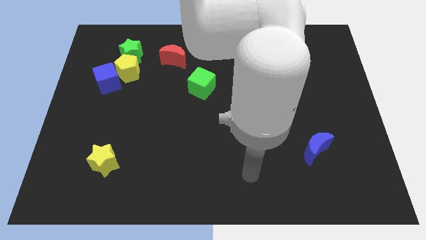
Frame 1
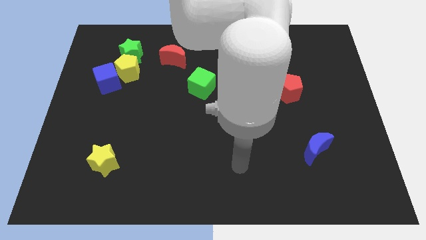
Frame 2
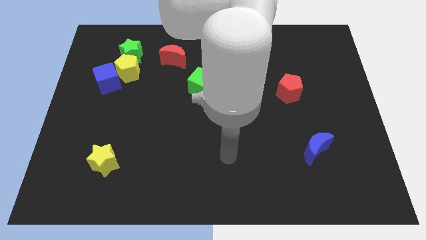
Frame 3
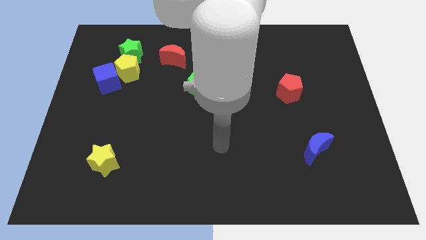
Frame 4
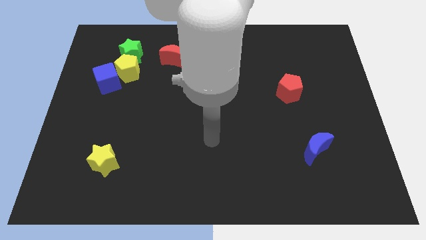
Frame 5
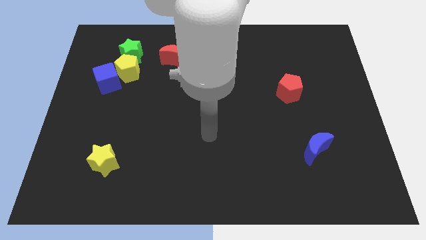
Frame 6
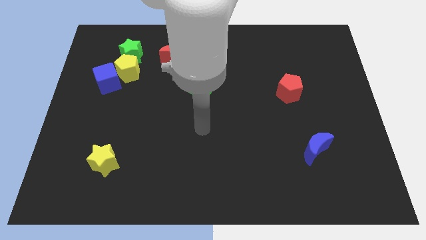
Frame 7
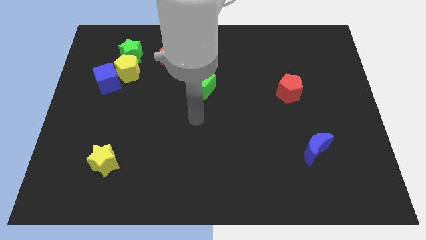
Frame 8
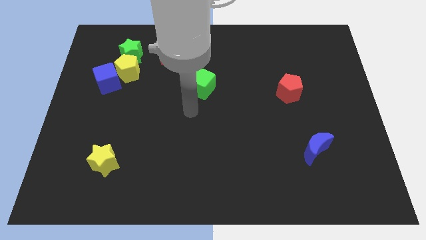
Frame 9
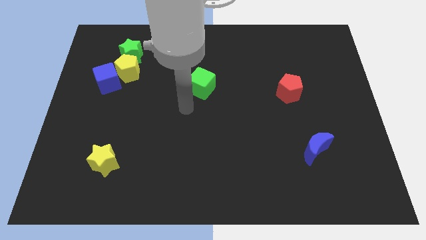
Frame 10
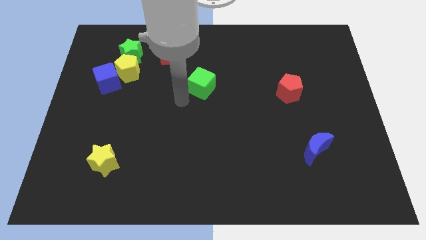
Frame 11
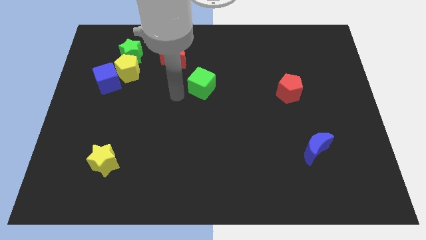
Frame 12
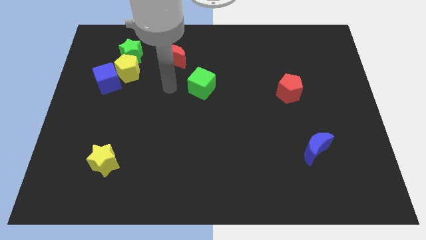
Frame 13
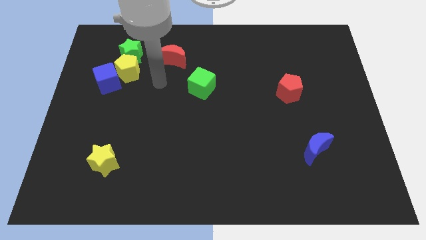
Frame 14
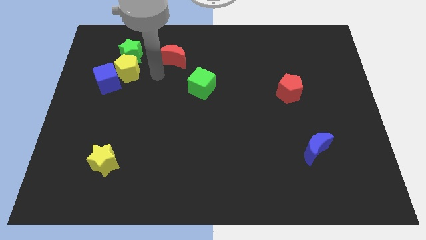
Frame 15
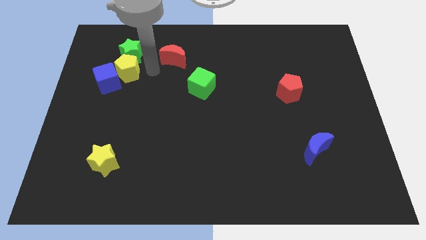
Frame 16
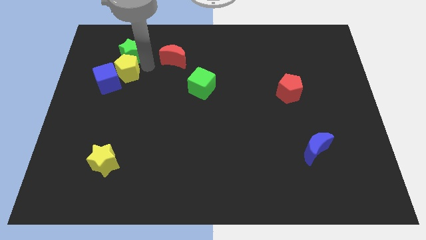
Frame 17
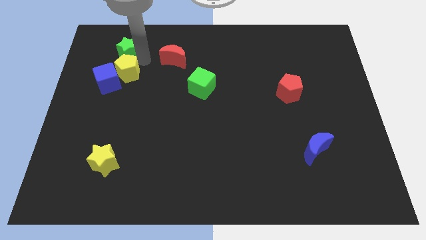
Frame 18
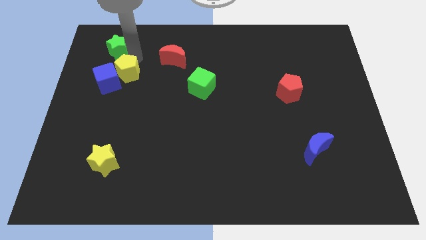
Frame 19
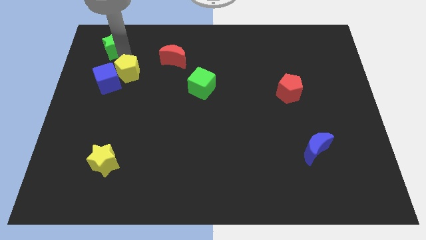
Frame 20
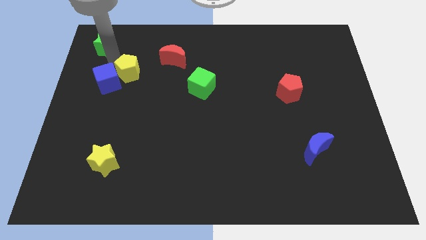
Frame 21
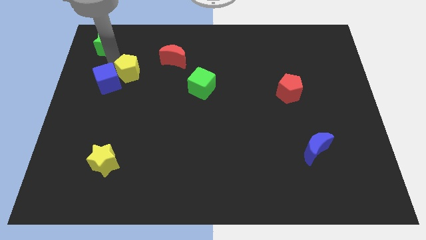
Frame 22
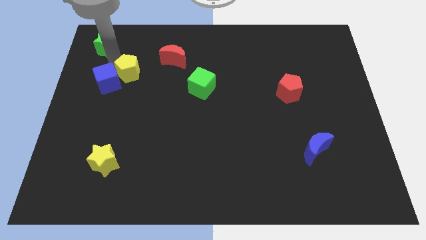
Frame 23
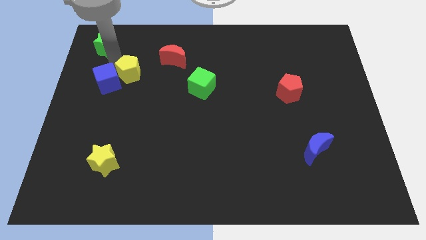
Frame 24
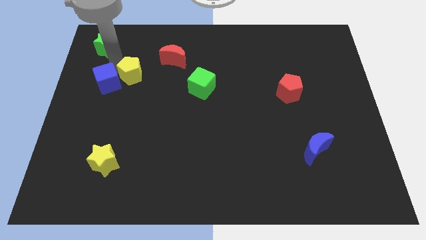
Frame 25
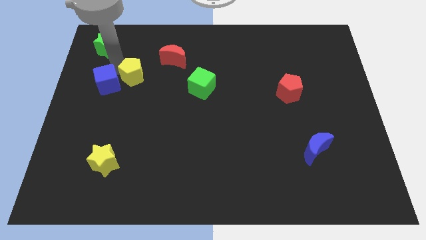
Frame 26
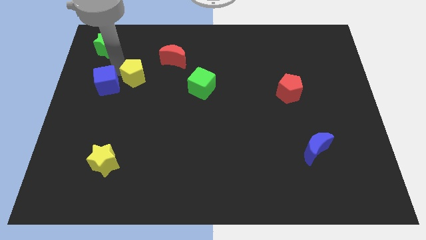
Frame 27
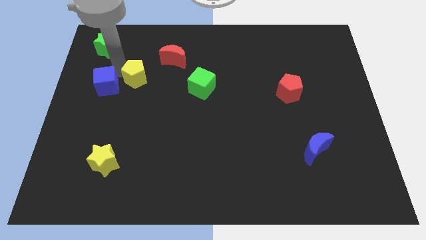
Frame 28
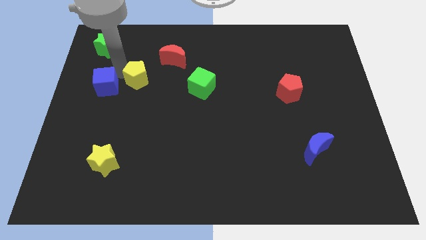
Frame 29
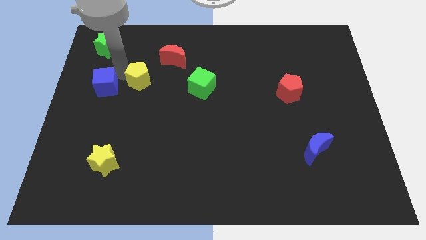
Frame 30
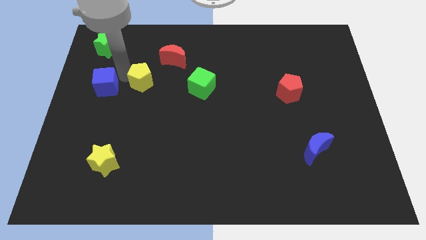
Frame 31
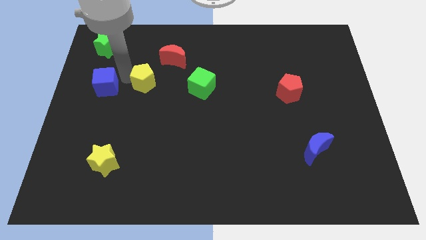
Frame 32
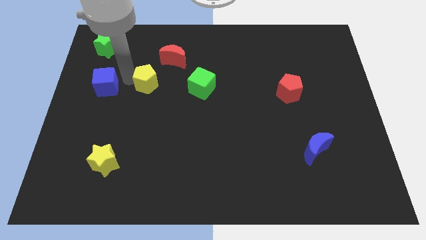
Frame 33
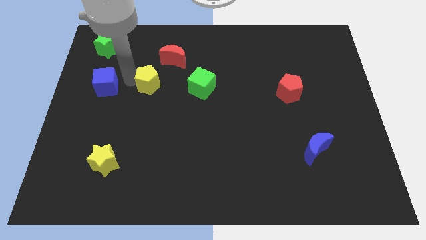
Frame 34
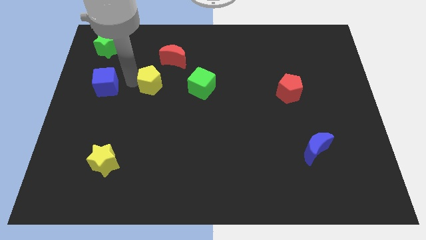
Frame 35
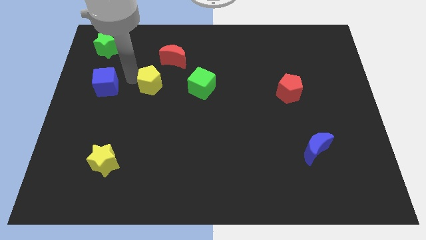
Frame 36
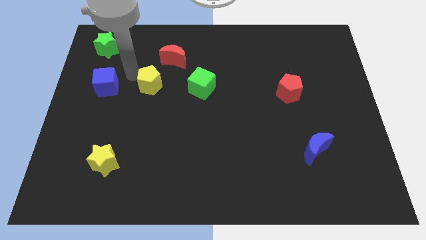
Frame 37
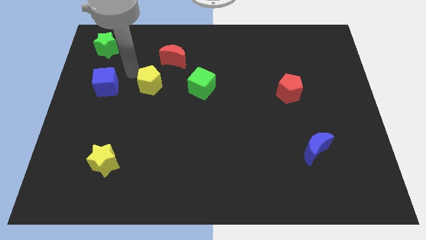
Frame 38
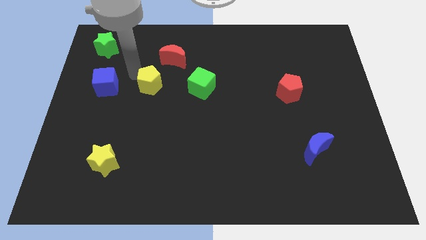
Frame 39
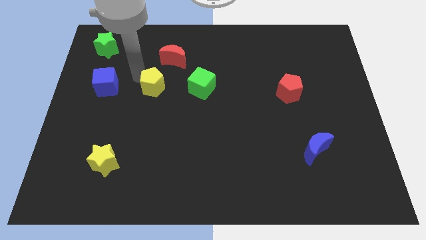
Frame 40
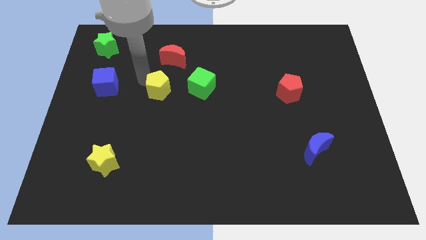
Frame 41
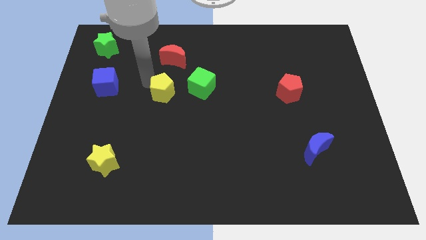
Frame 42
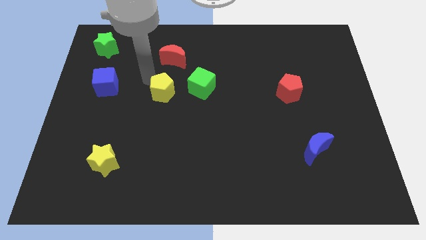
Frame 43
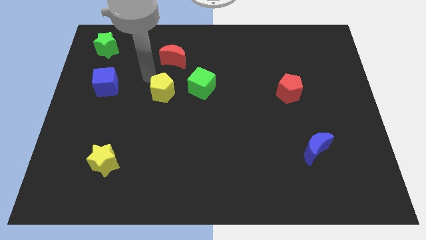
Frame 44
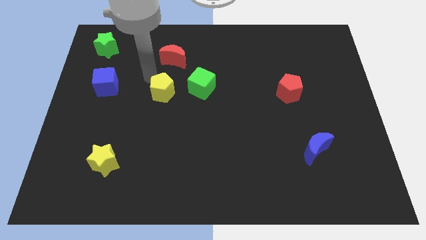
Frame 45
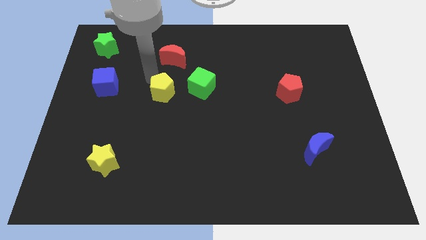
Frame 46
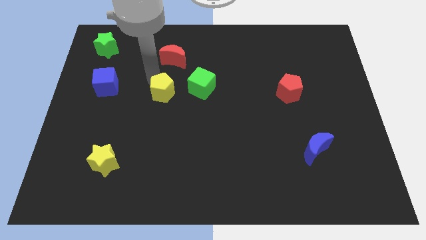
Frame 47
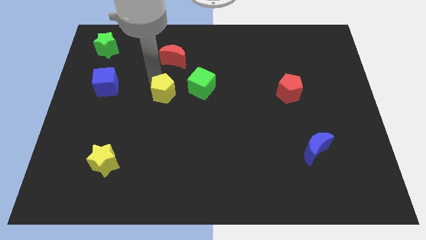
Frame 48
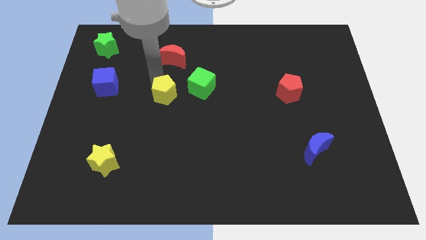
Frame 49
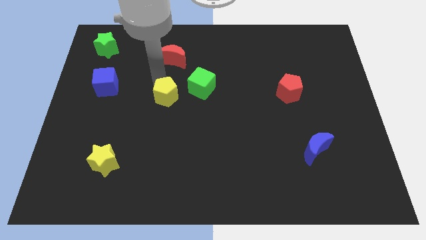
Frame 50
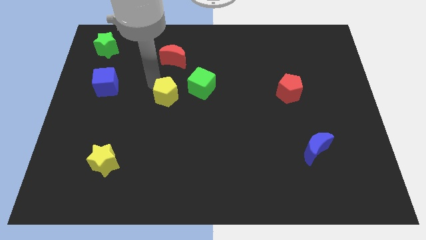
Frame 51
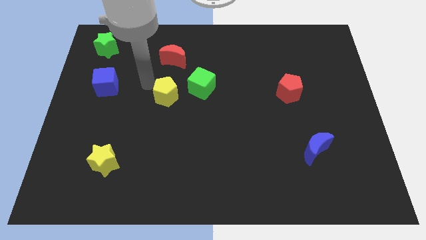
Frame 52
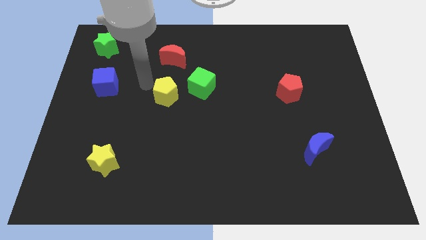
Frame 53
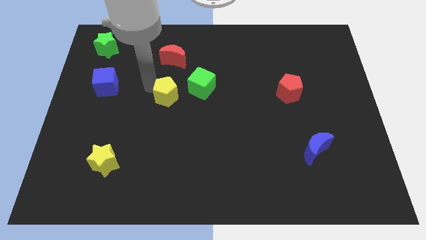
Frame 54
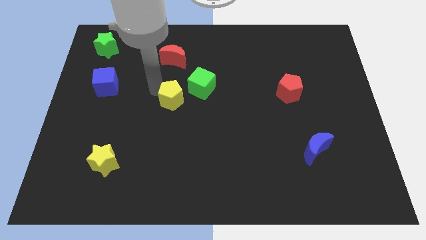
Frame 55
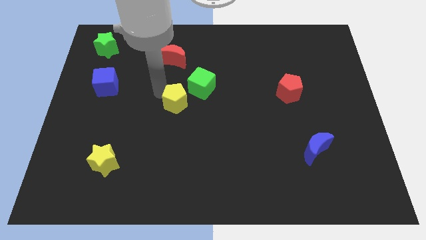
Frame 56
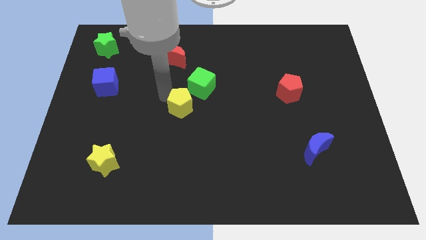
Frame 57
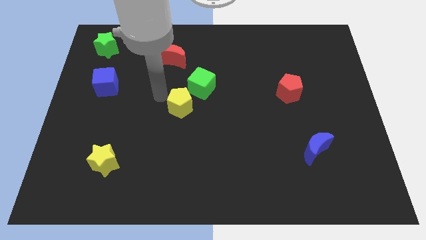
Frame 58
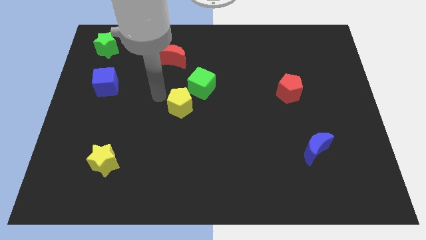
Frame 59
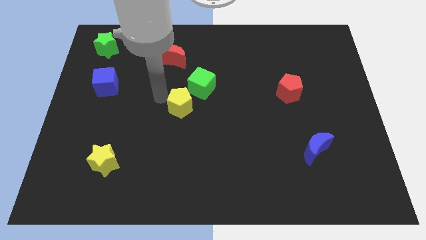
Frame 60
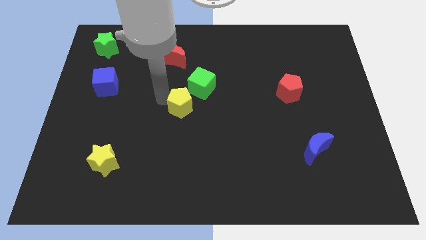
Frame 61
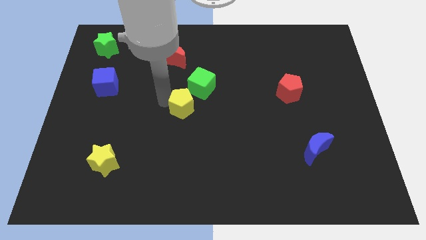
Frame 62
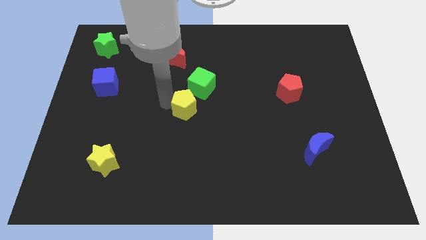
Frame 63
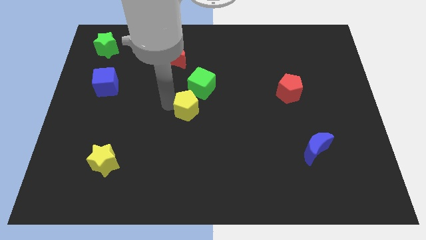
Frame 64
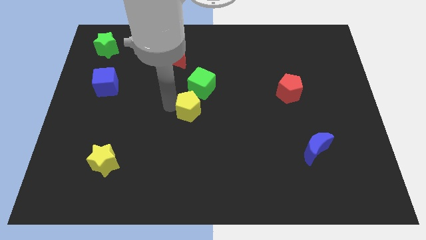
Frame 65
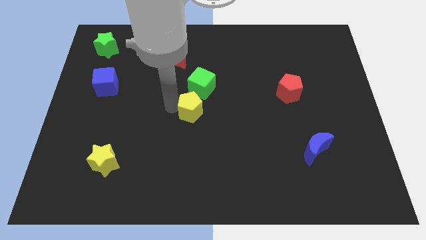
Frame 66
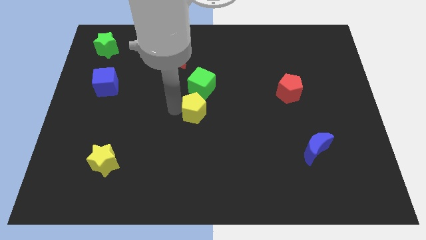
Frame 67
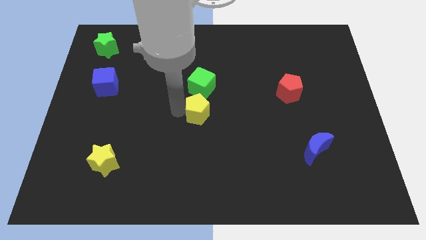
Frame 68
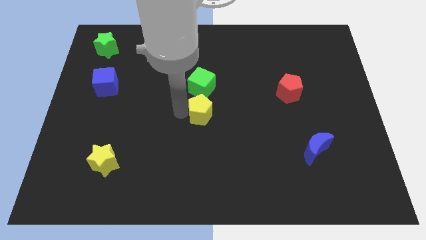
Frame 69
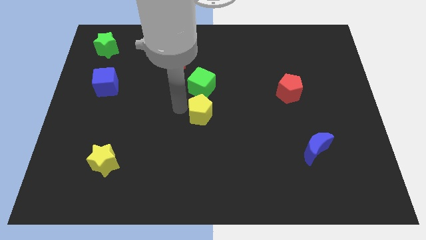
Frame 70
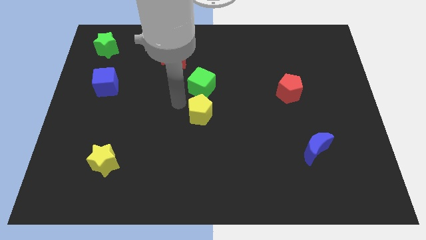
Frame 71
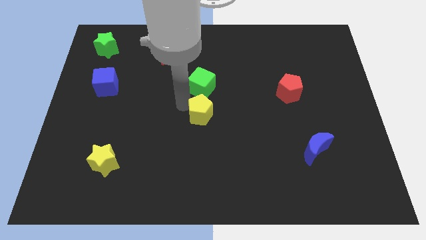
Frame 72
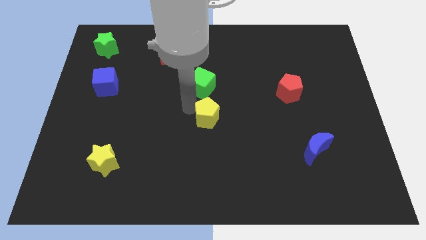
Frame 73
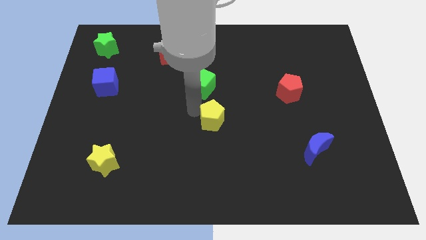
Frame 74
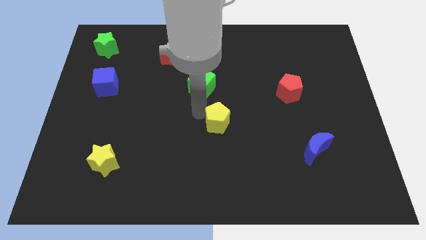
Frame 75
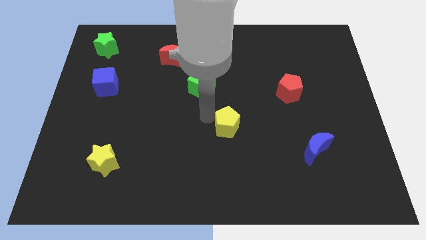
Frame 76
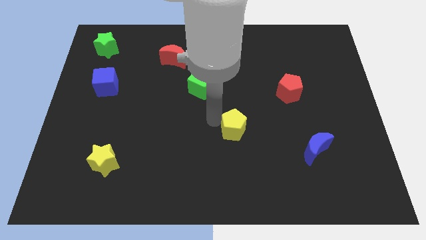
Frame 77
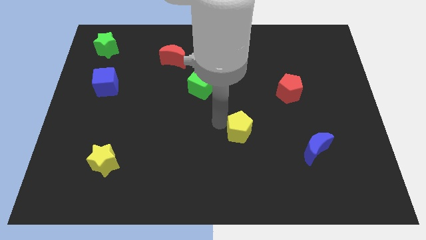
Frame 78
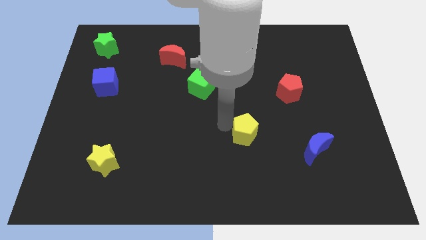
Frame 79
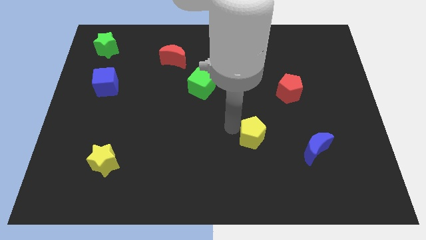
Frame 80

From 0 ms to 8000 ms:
move the yellow pentagon to the left of the blue moon
